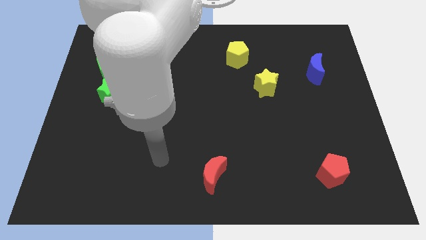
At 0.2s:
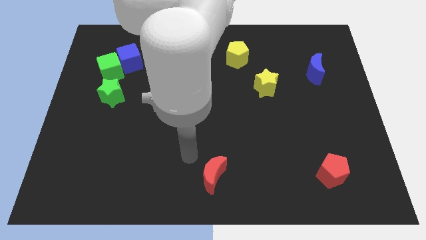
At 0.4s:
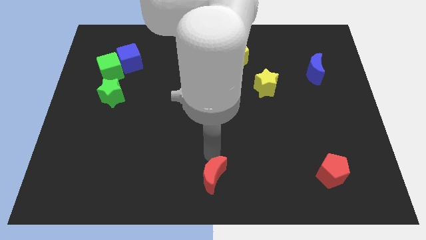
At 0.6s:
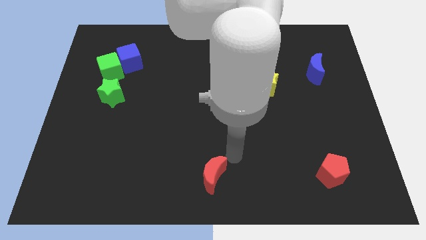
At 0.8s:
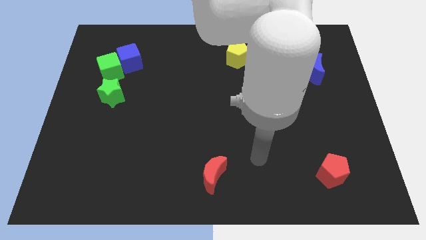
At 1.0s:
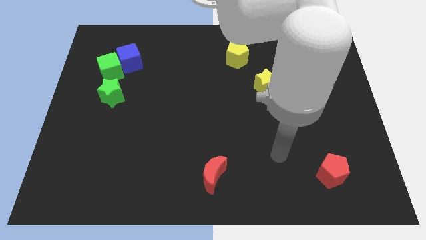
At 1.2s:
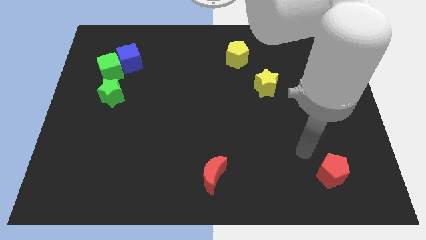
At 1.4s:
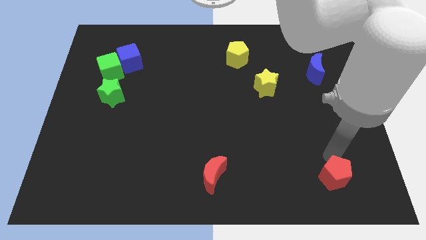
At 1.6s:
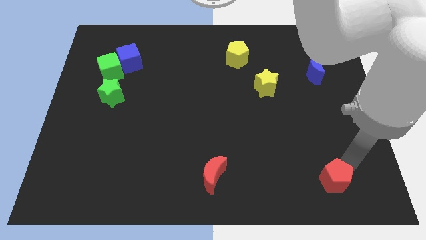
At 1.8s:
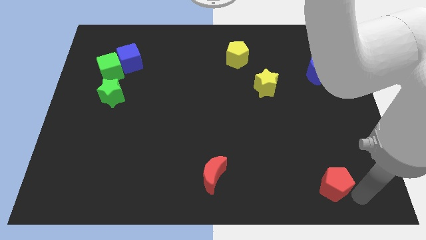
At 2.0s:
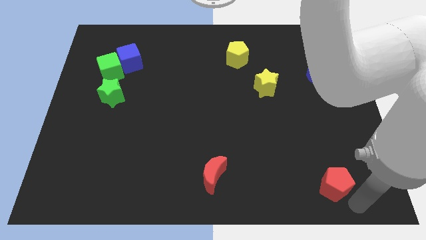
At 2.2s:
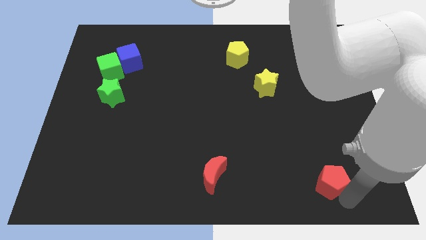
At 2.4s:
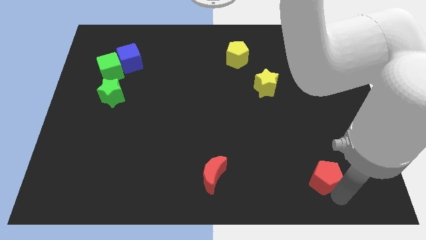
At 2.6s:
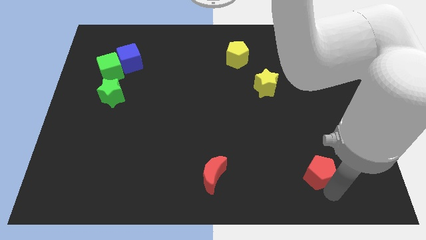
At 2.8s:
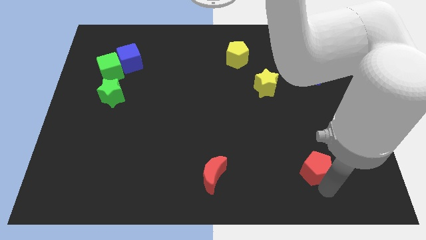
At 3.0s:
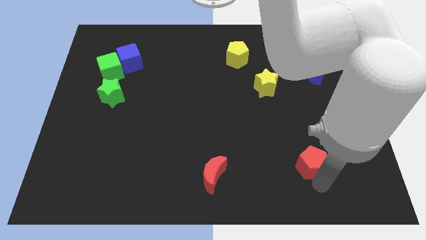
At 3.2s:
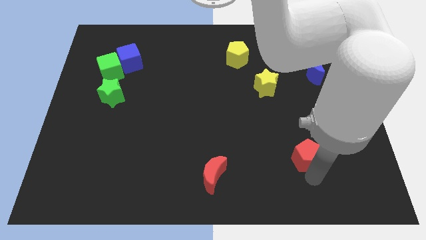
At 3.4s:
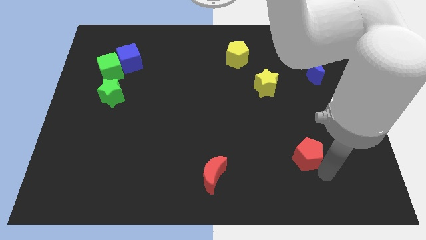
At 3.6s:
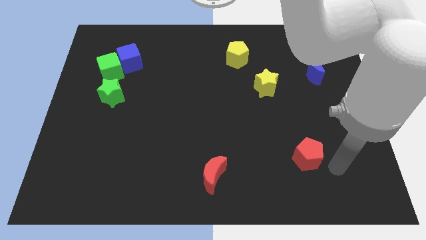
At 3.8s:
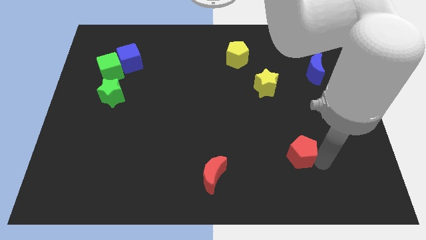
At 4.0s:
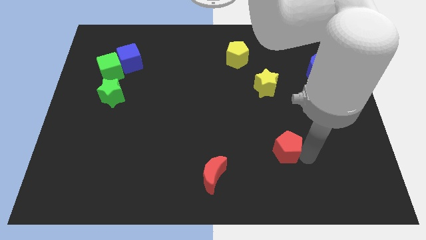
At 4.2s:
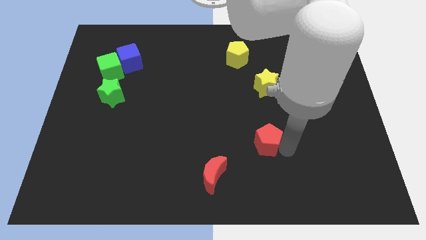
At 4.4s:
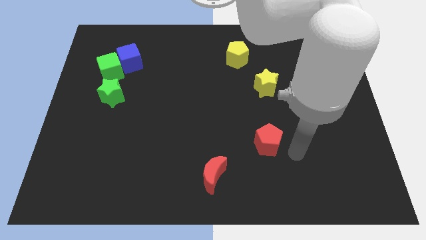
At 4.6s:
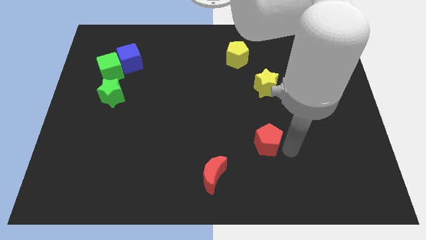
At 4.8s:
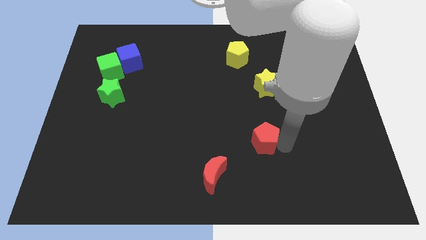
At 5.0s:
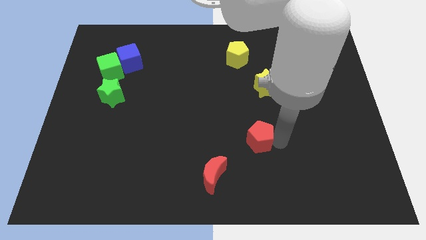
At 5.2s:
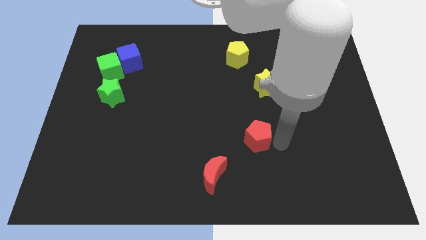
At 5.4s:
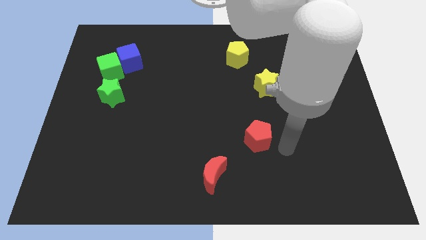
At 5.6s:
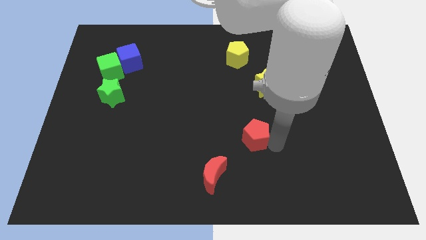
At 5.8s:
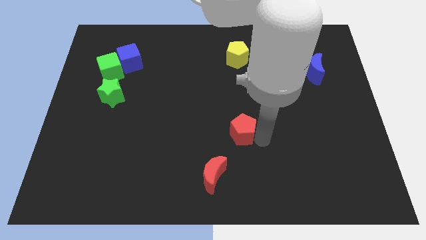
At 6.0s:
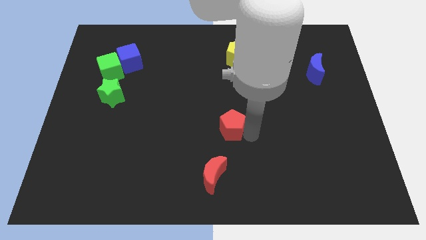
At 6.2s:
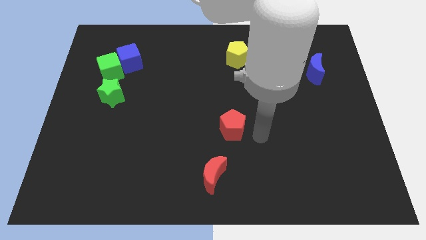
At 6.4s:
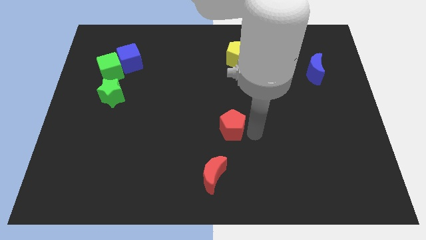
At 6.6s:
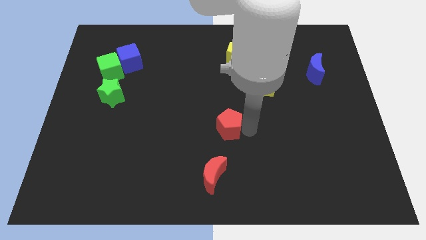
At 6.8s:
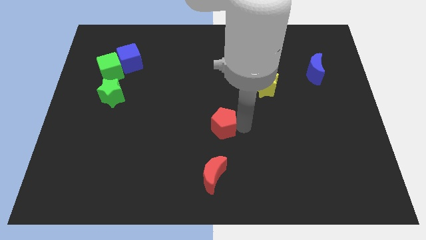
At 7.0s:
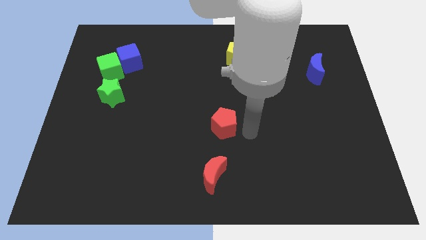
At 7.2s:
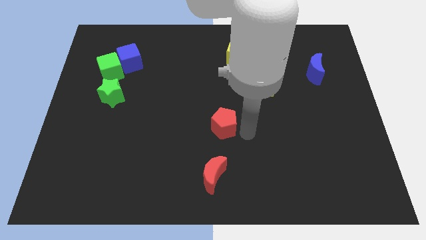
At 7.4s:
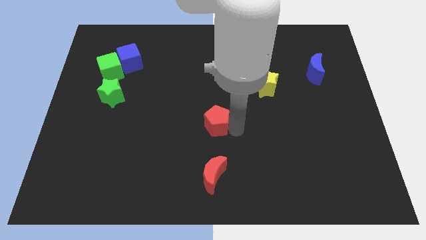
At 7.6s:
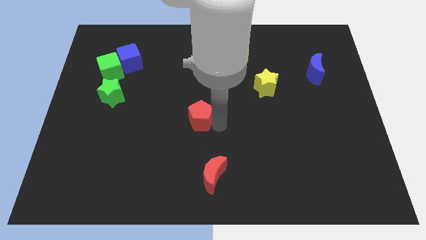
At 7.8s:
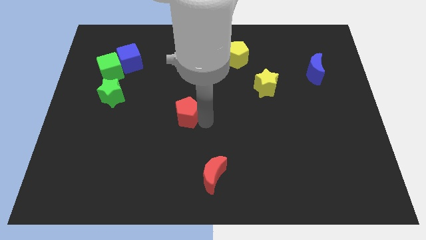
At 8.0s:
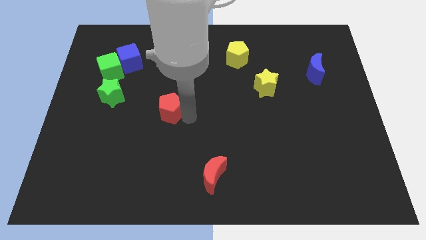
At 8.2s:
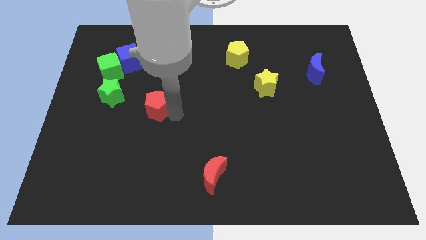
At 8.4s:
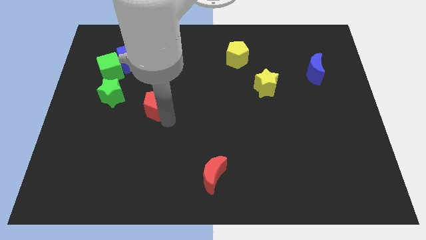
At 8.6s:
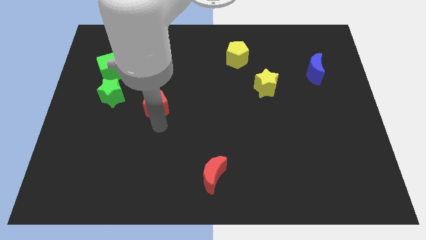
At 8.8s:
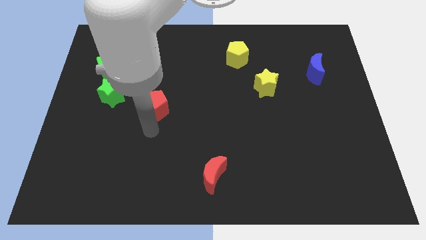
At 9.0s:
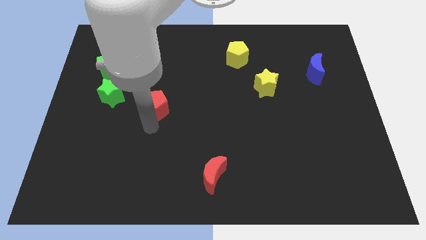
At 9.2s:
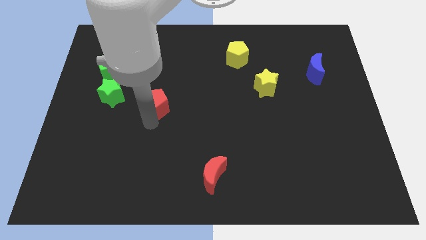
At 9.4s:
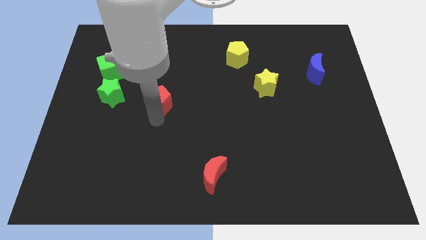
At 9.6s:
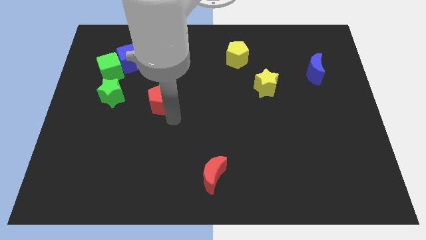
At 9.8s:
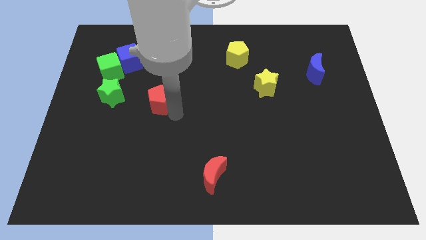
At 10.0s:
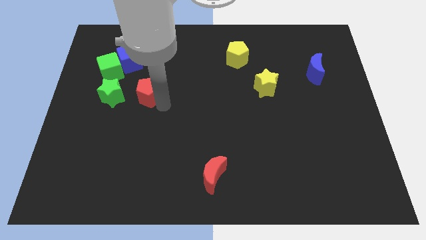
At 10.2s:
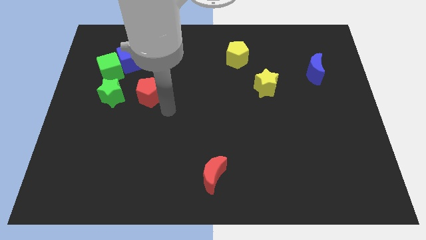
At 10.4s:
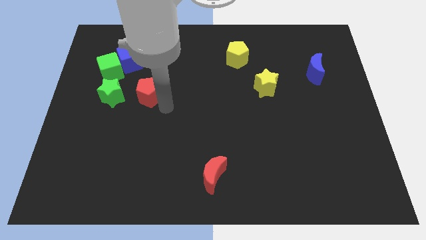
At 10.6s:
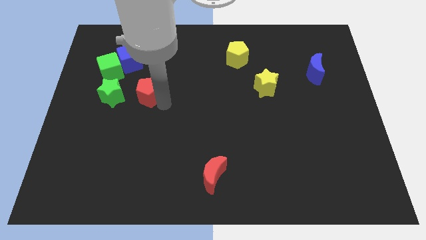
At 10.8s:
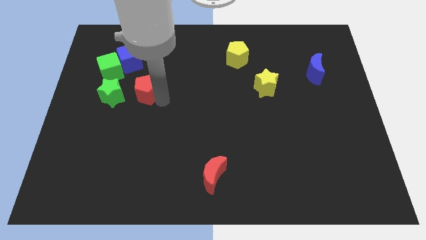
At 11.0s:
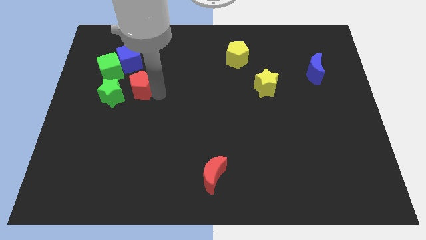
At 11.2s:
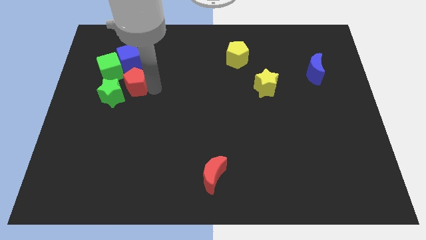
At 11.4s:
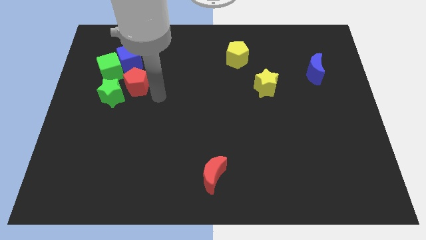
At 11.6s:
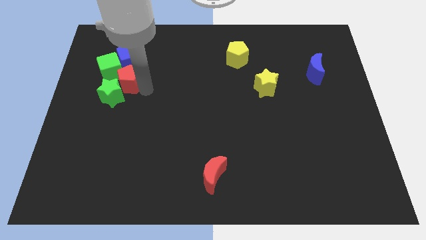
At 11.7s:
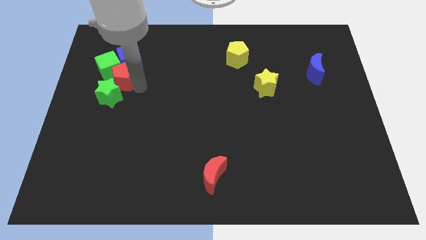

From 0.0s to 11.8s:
push the red pentagon next to the green cube

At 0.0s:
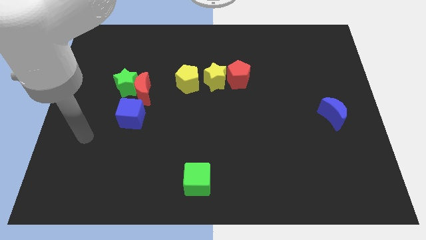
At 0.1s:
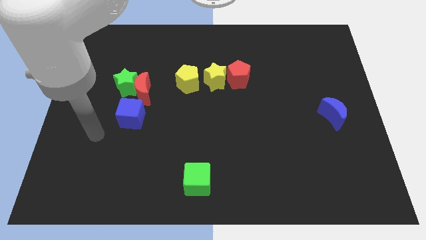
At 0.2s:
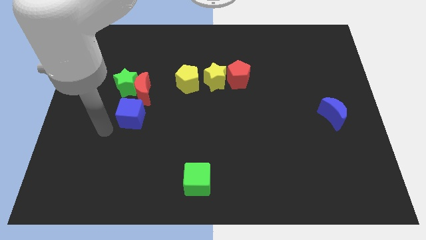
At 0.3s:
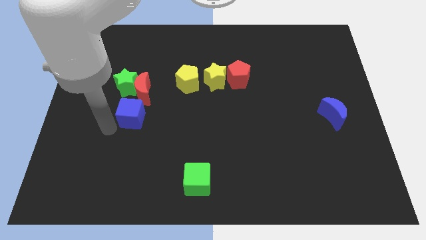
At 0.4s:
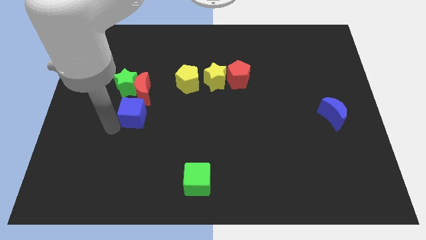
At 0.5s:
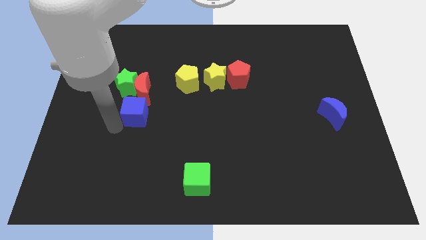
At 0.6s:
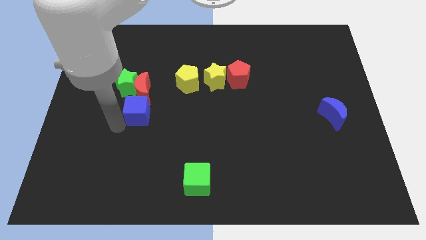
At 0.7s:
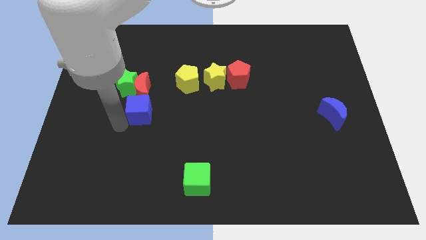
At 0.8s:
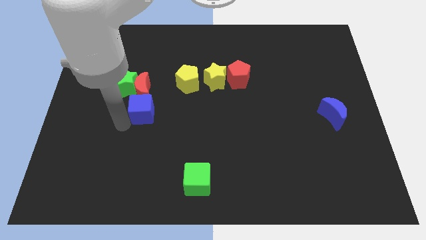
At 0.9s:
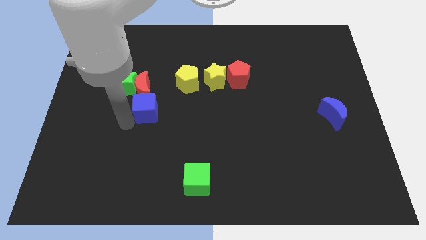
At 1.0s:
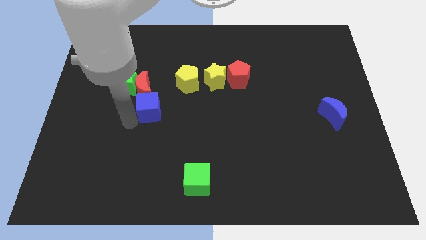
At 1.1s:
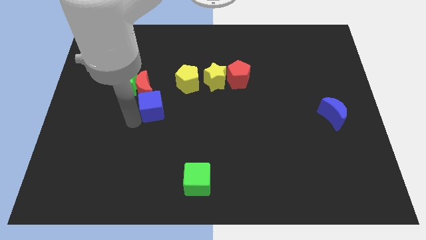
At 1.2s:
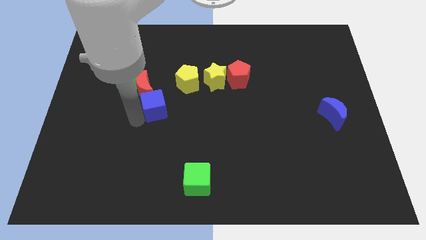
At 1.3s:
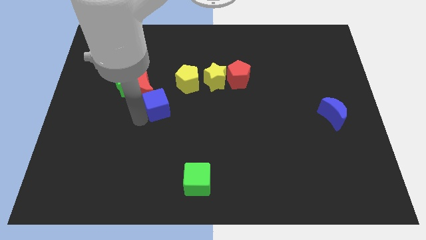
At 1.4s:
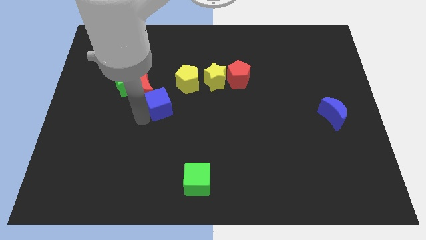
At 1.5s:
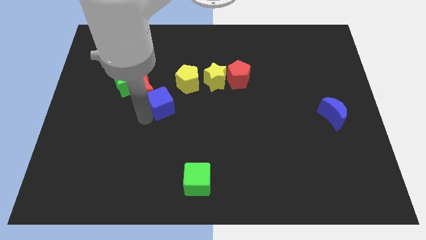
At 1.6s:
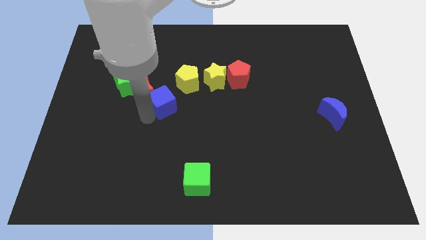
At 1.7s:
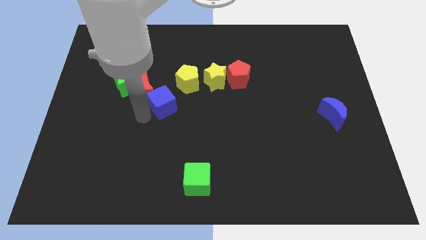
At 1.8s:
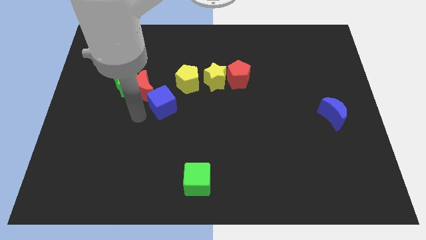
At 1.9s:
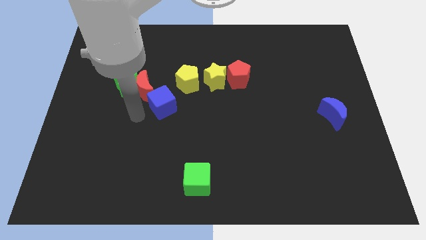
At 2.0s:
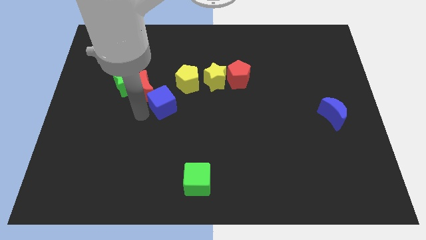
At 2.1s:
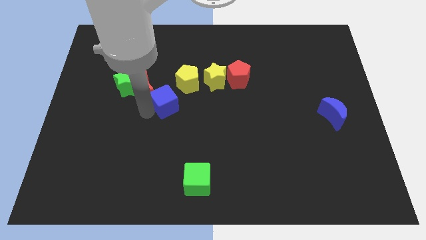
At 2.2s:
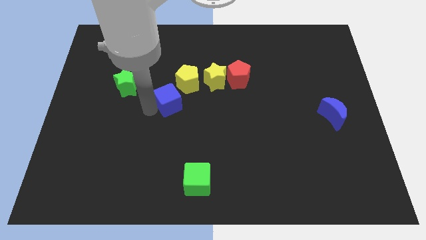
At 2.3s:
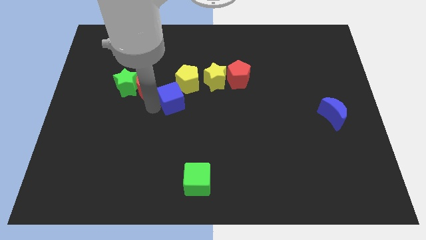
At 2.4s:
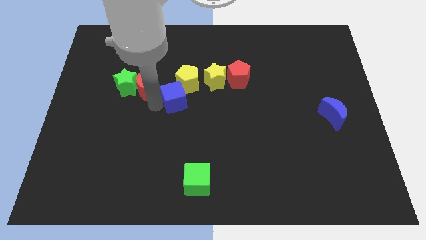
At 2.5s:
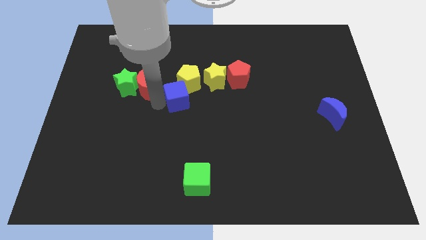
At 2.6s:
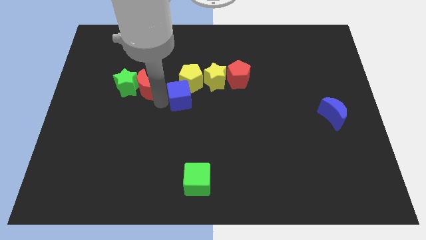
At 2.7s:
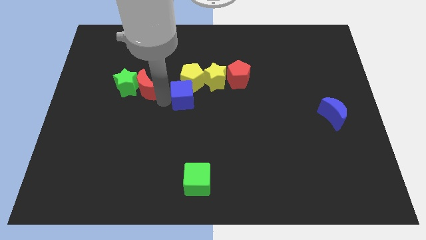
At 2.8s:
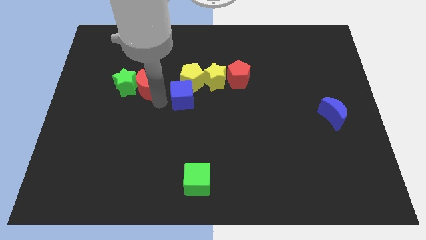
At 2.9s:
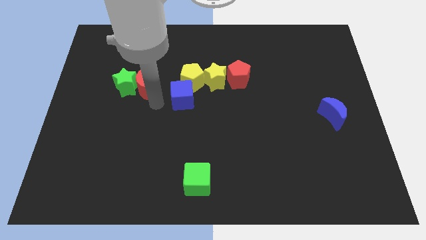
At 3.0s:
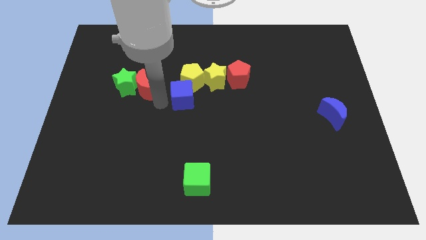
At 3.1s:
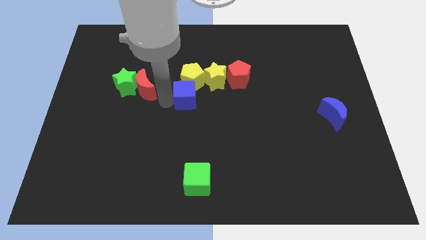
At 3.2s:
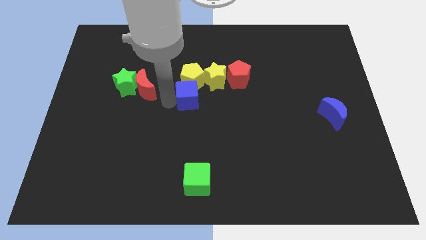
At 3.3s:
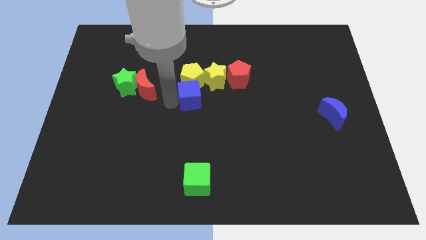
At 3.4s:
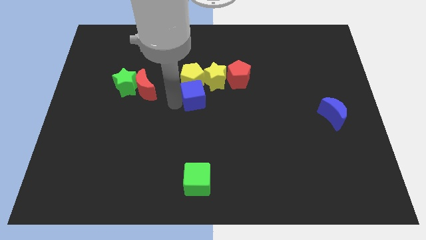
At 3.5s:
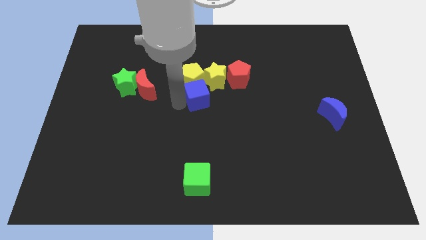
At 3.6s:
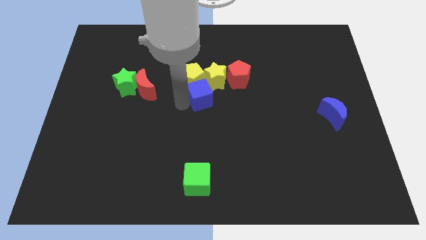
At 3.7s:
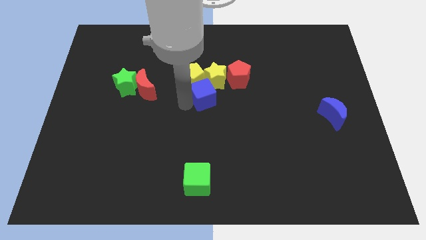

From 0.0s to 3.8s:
move the blue cube close to the yellow star
